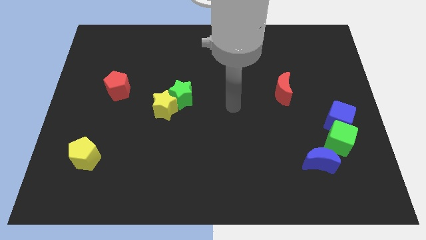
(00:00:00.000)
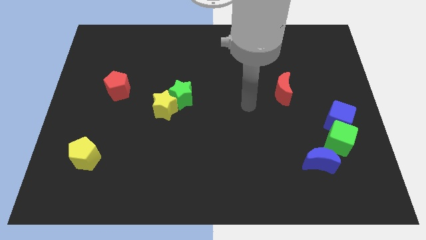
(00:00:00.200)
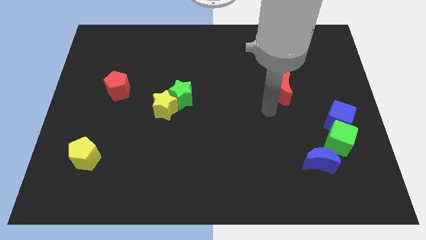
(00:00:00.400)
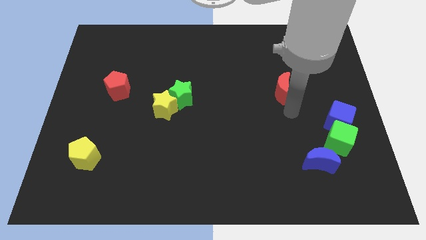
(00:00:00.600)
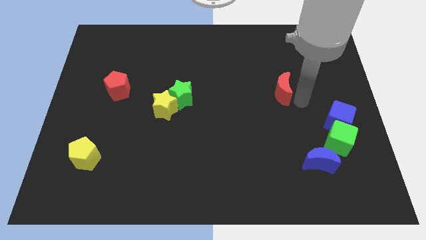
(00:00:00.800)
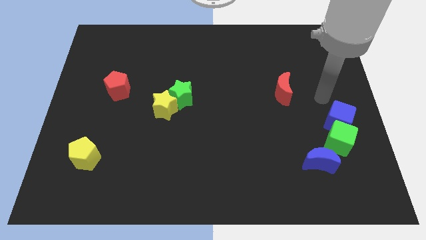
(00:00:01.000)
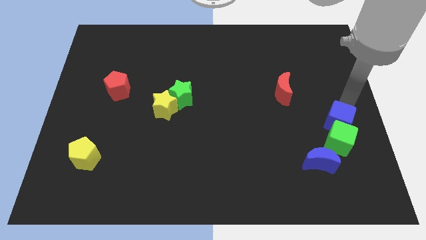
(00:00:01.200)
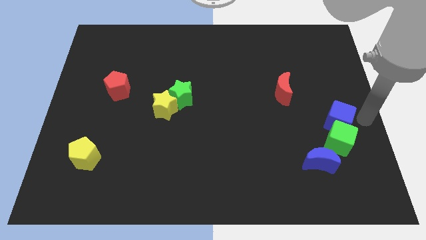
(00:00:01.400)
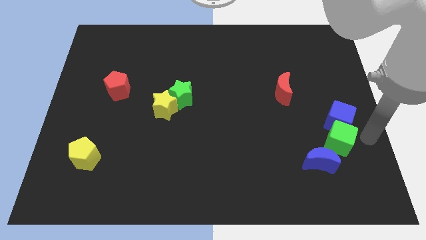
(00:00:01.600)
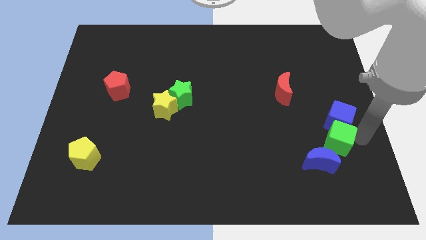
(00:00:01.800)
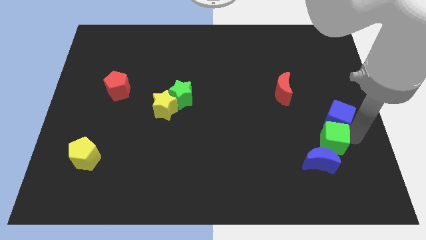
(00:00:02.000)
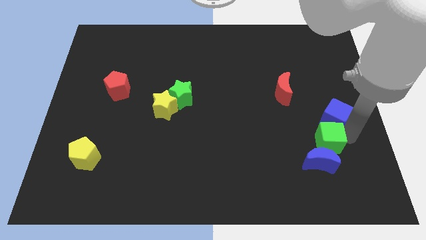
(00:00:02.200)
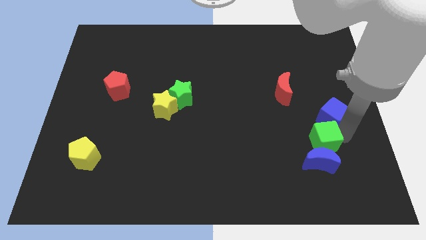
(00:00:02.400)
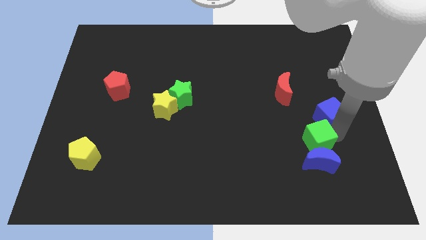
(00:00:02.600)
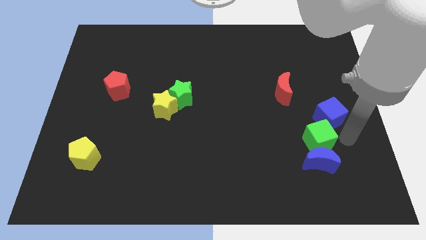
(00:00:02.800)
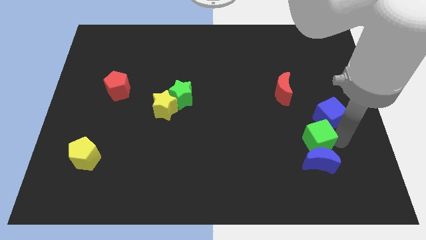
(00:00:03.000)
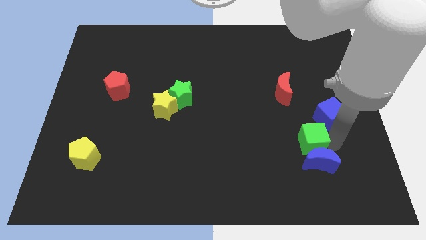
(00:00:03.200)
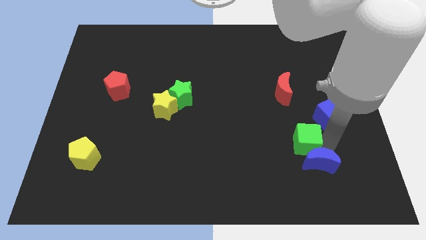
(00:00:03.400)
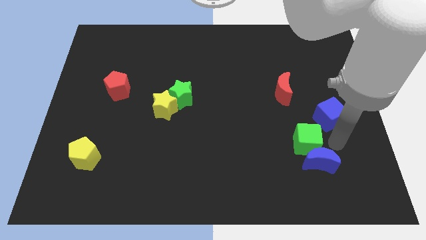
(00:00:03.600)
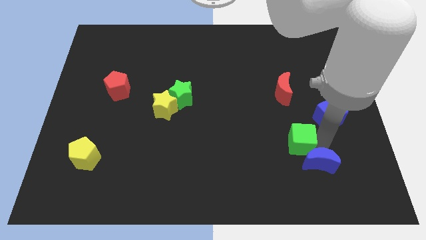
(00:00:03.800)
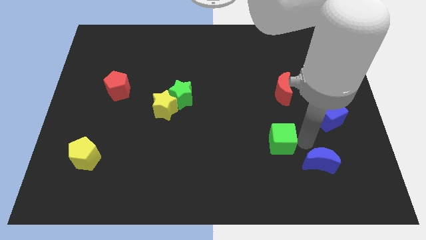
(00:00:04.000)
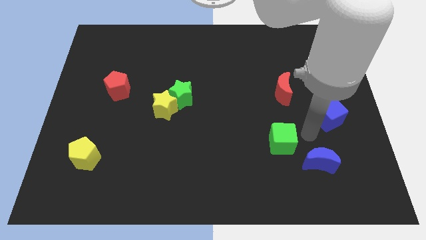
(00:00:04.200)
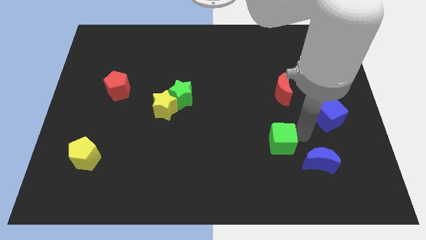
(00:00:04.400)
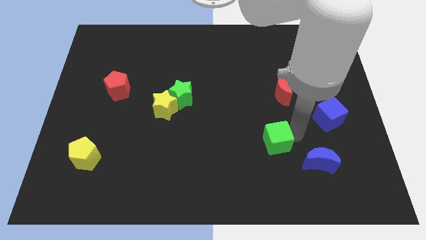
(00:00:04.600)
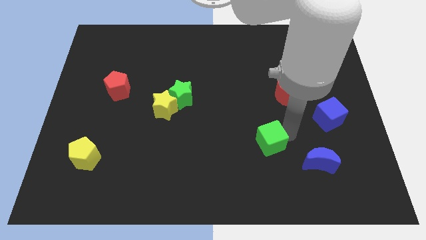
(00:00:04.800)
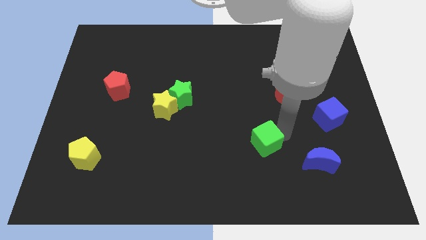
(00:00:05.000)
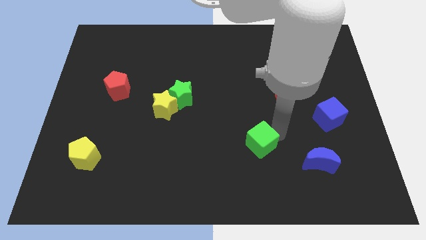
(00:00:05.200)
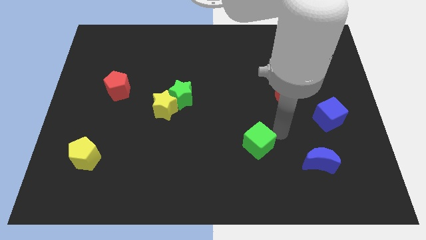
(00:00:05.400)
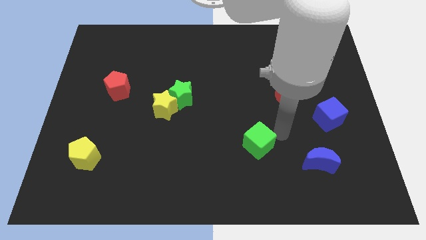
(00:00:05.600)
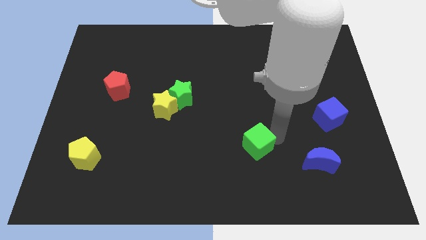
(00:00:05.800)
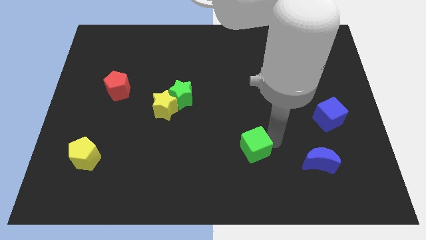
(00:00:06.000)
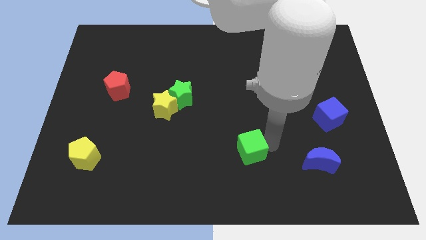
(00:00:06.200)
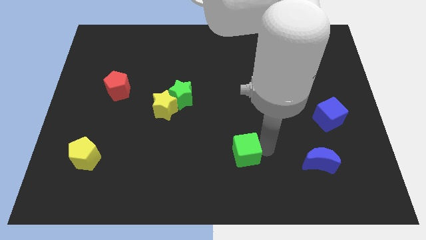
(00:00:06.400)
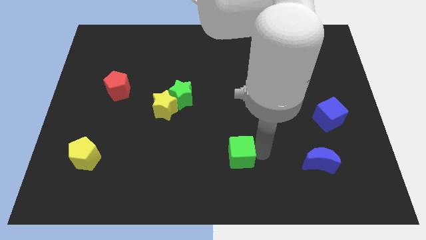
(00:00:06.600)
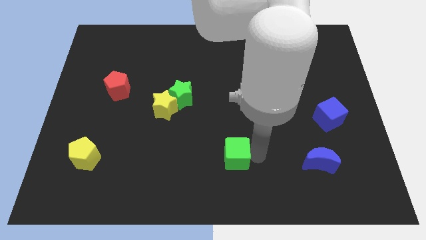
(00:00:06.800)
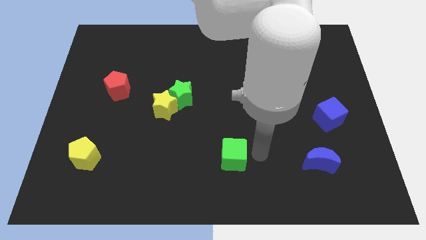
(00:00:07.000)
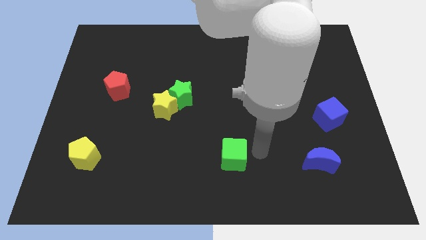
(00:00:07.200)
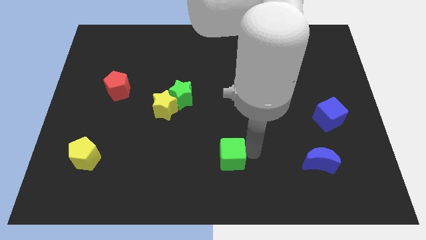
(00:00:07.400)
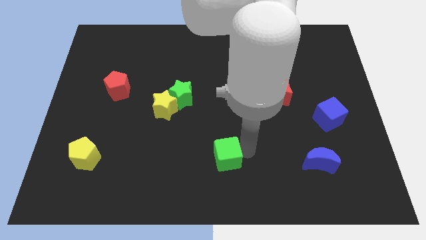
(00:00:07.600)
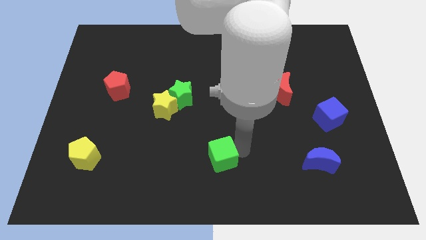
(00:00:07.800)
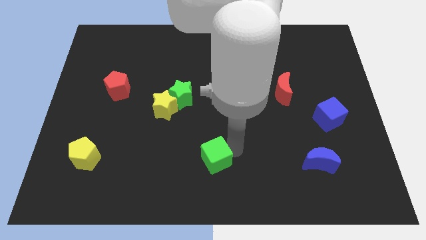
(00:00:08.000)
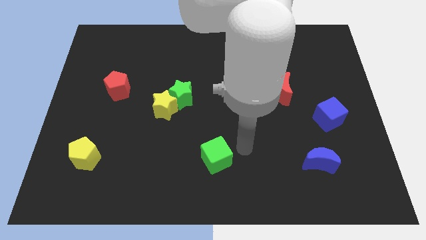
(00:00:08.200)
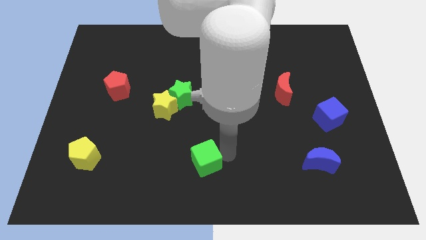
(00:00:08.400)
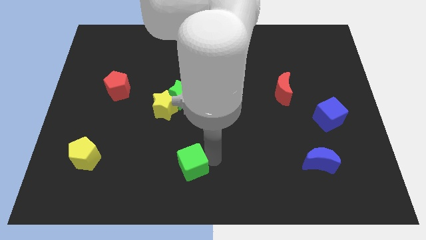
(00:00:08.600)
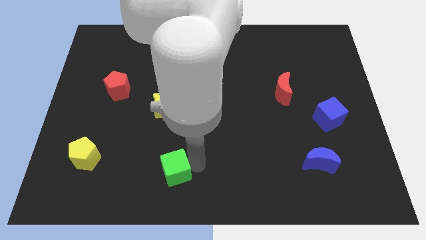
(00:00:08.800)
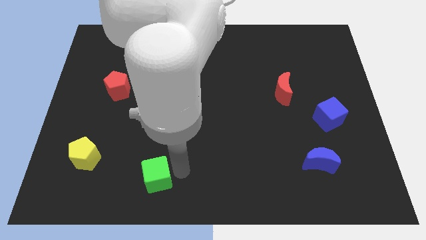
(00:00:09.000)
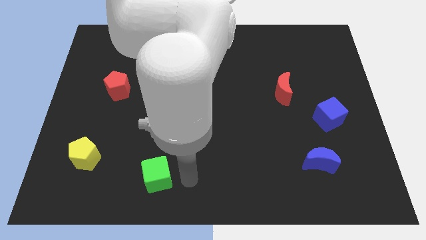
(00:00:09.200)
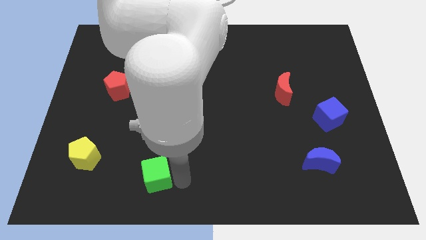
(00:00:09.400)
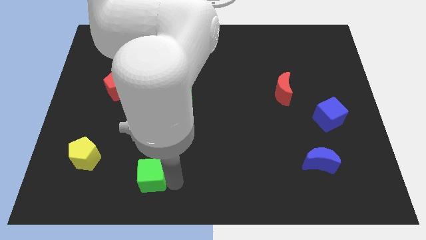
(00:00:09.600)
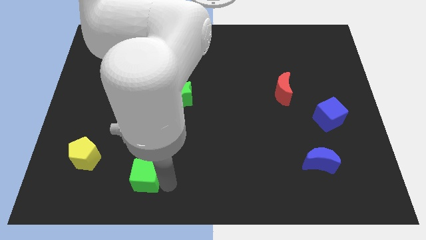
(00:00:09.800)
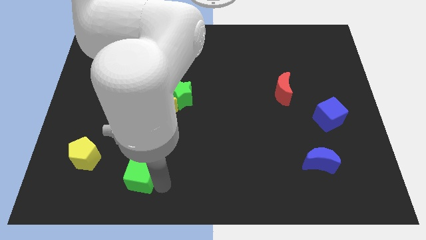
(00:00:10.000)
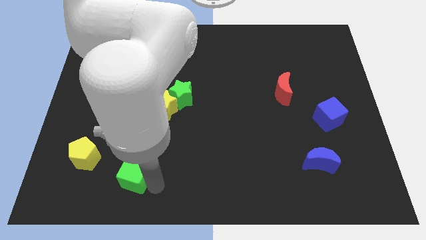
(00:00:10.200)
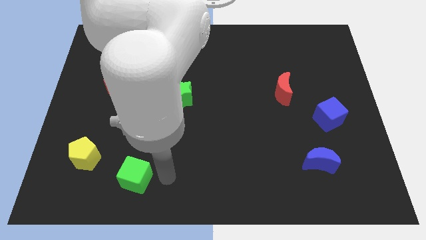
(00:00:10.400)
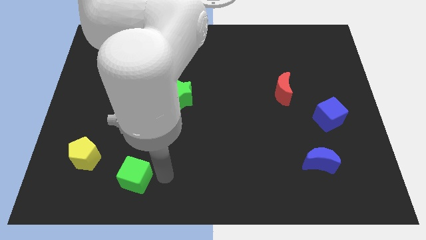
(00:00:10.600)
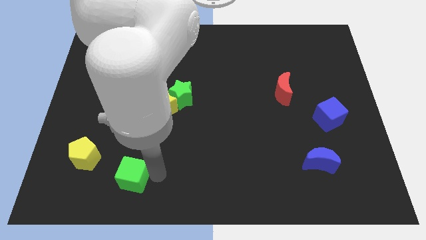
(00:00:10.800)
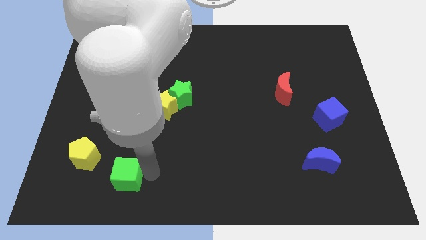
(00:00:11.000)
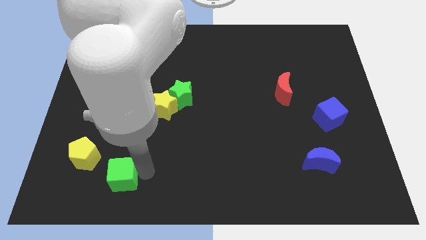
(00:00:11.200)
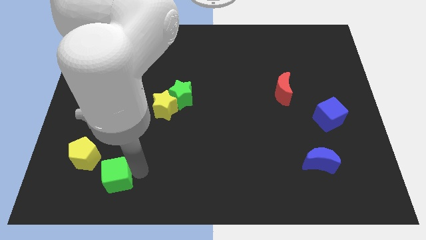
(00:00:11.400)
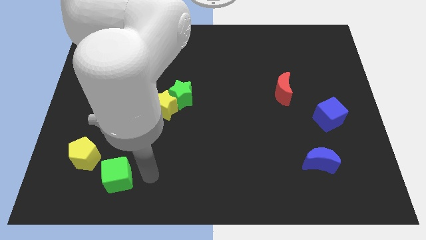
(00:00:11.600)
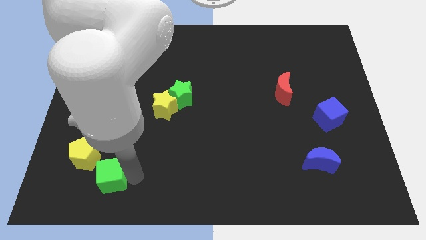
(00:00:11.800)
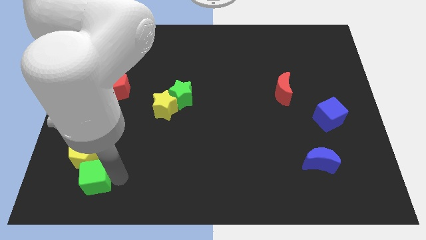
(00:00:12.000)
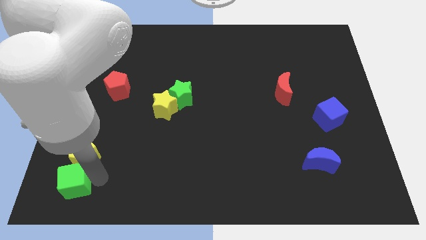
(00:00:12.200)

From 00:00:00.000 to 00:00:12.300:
put the green cube to the bottom left
